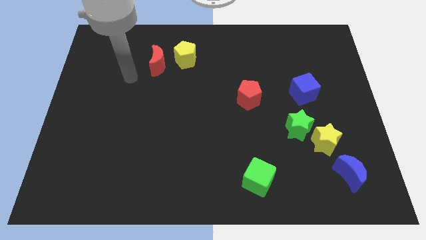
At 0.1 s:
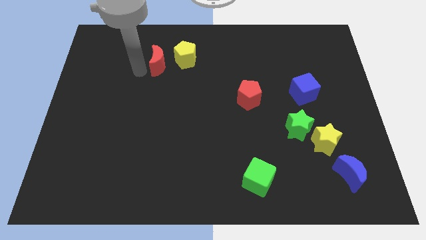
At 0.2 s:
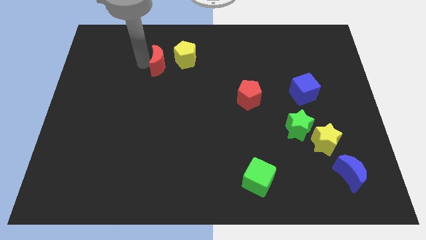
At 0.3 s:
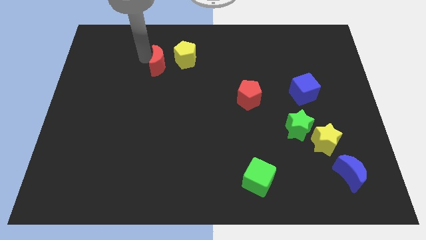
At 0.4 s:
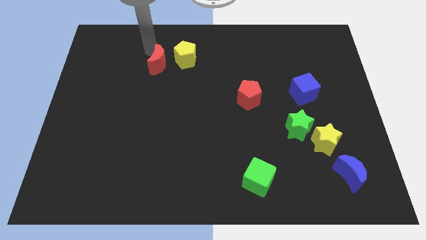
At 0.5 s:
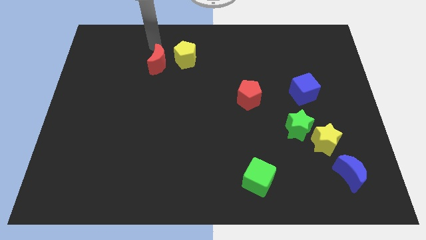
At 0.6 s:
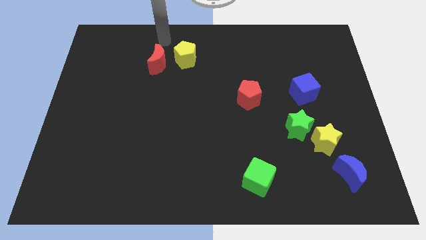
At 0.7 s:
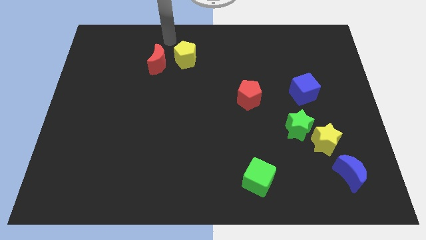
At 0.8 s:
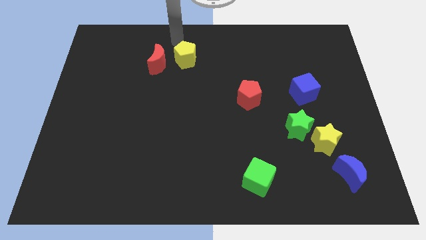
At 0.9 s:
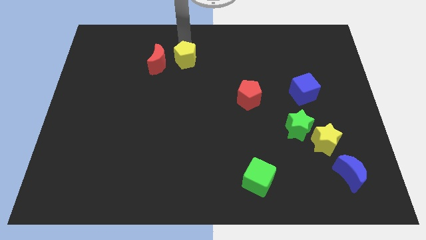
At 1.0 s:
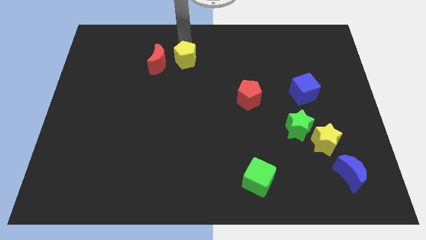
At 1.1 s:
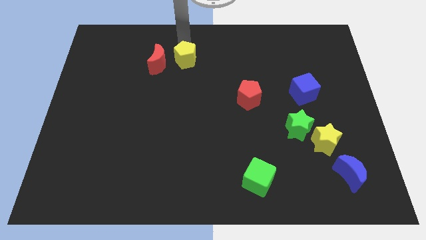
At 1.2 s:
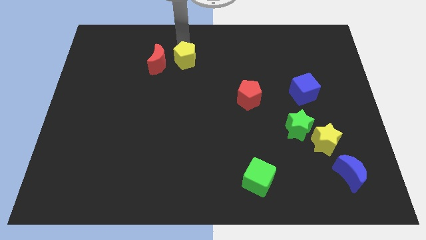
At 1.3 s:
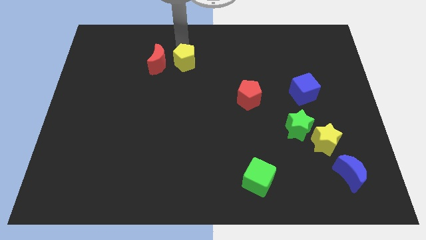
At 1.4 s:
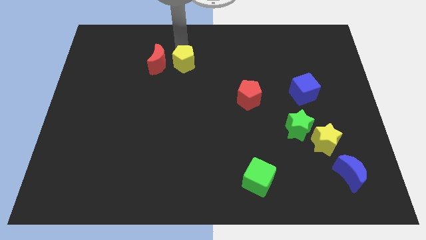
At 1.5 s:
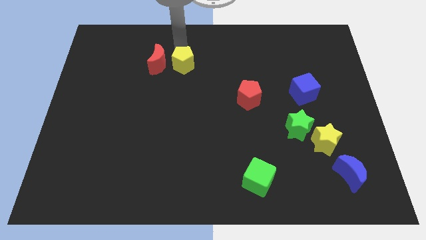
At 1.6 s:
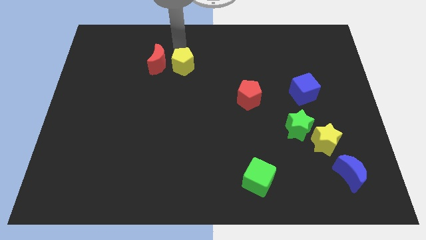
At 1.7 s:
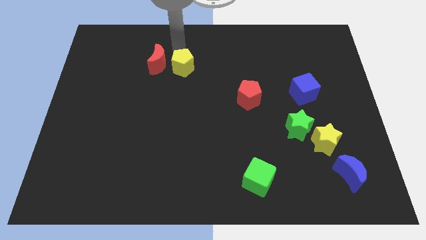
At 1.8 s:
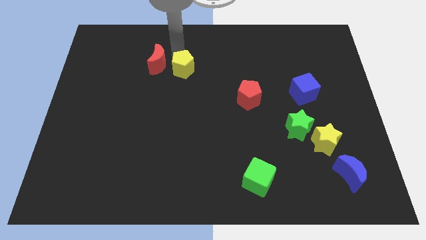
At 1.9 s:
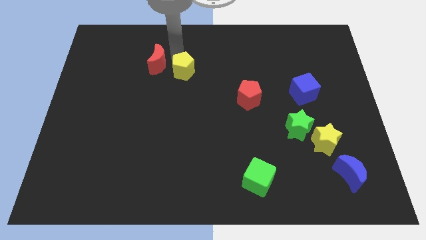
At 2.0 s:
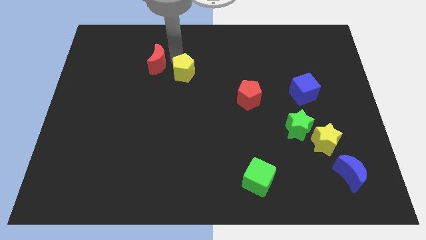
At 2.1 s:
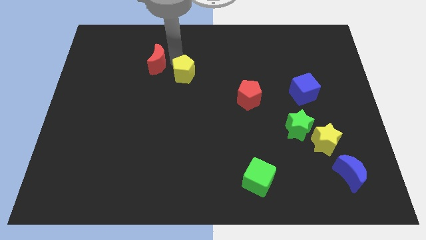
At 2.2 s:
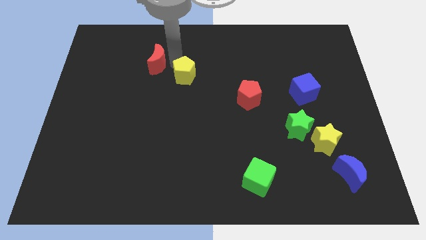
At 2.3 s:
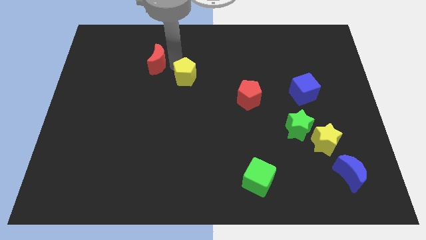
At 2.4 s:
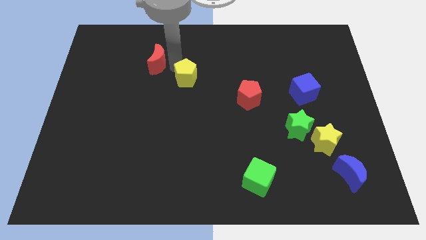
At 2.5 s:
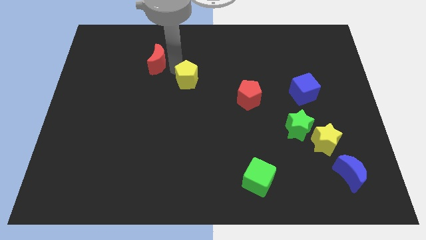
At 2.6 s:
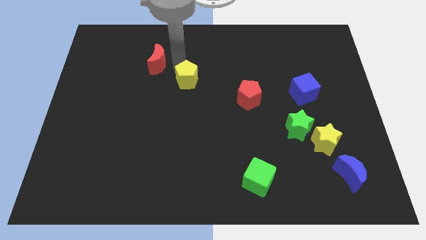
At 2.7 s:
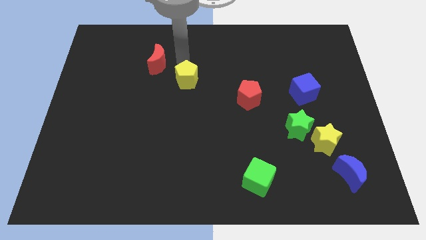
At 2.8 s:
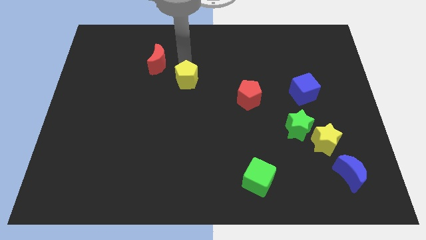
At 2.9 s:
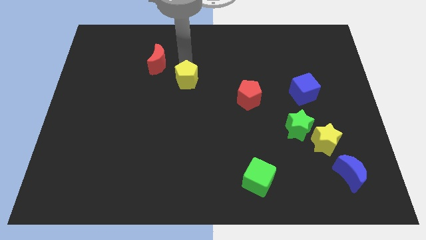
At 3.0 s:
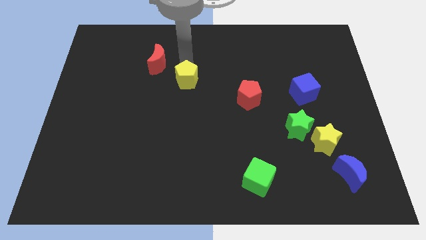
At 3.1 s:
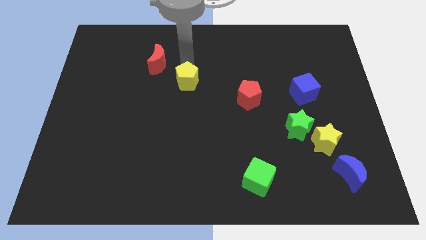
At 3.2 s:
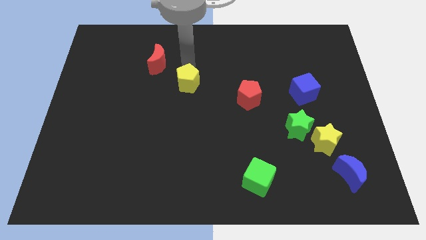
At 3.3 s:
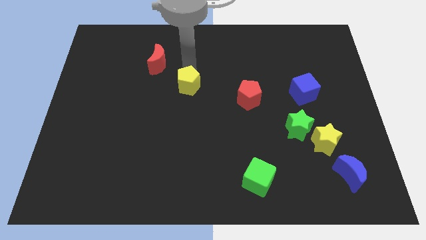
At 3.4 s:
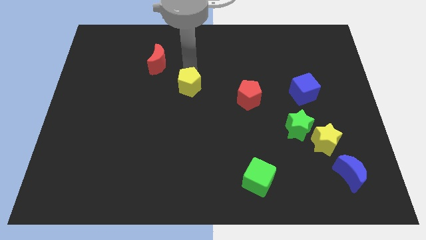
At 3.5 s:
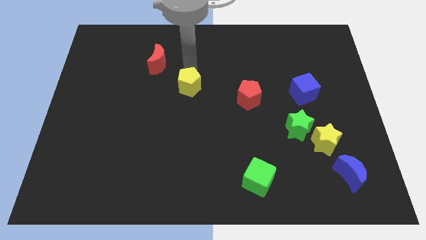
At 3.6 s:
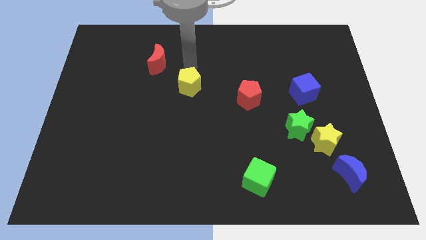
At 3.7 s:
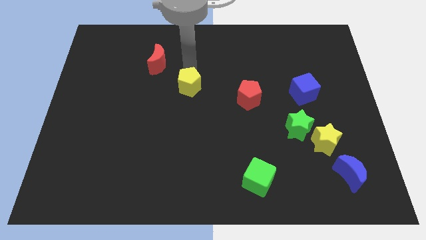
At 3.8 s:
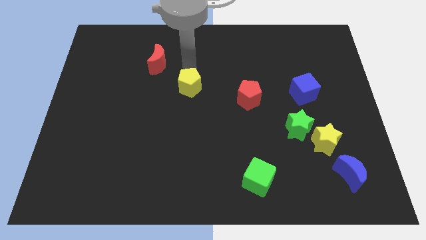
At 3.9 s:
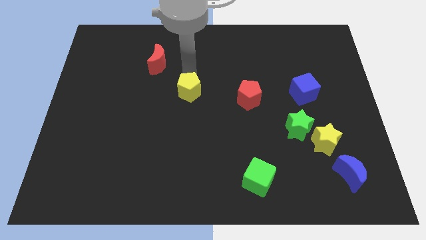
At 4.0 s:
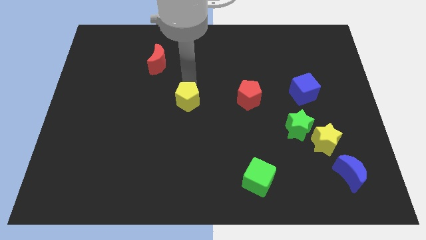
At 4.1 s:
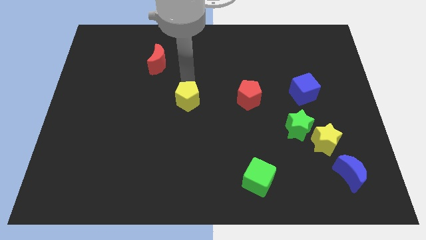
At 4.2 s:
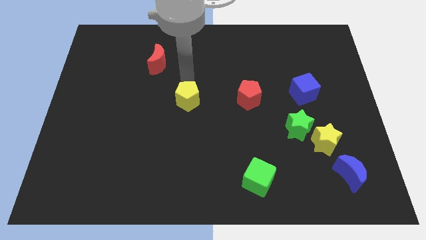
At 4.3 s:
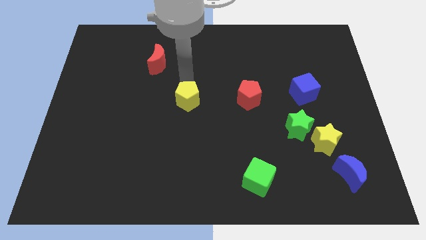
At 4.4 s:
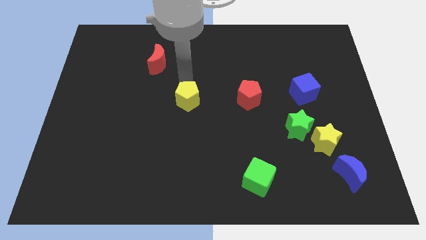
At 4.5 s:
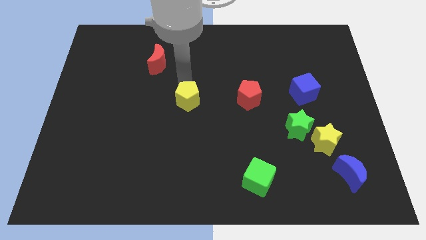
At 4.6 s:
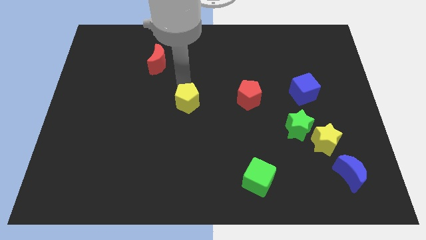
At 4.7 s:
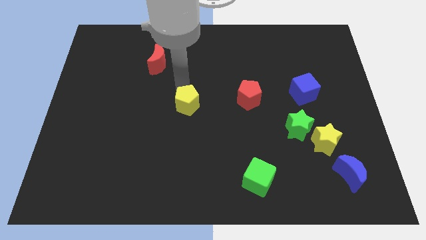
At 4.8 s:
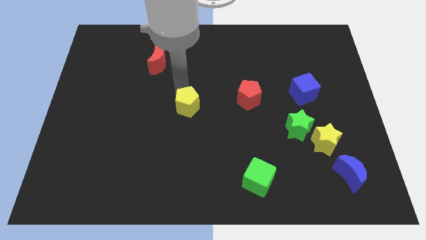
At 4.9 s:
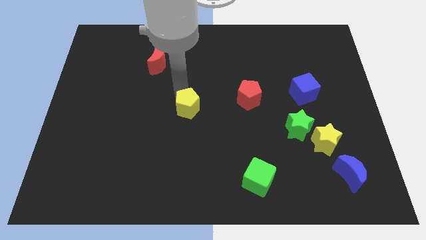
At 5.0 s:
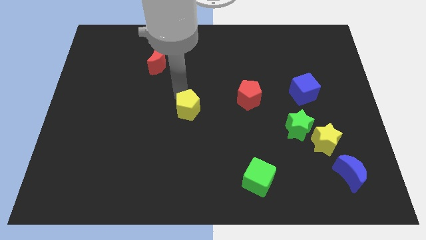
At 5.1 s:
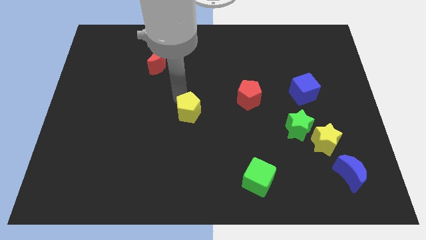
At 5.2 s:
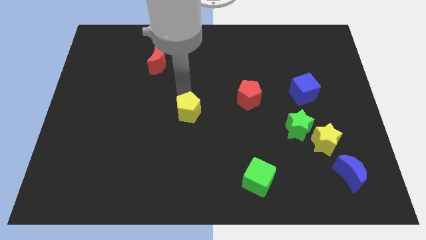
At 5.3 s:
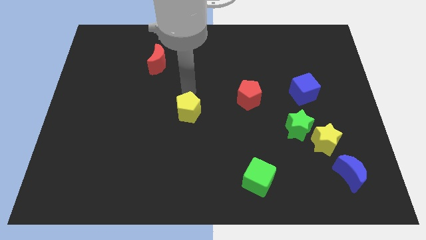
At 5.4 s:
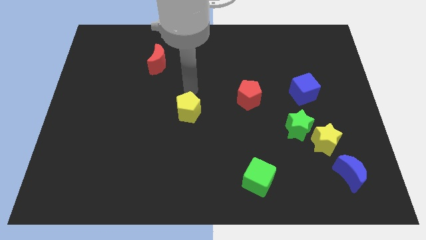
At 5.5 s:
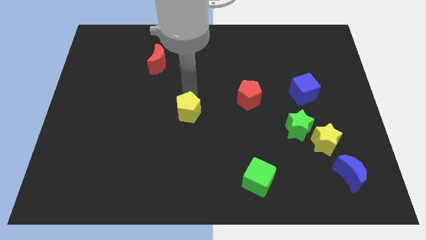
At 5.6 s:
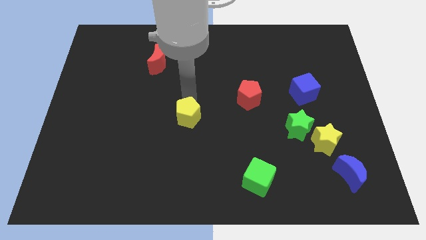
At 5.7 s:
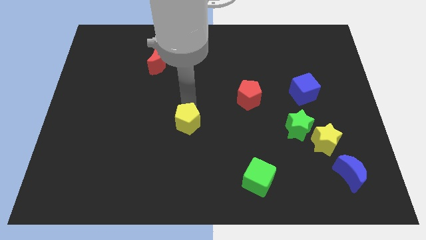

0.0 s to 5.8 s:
push the yellow pentagon down

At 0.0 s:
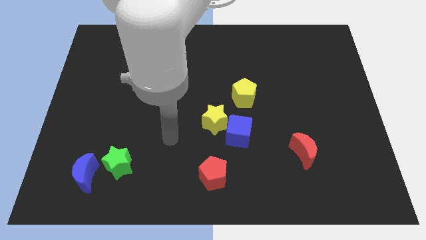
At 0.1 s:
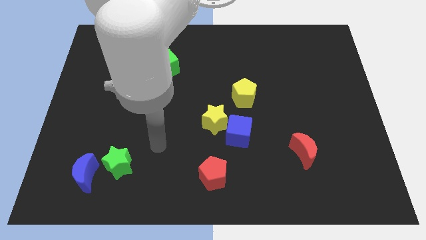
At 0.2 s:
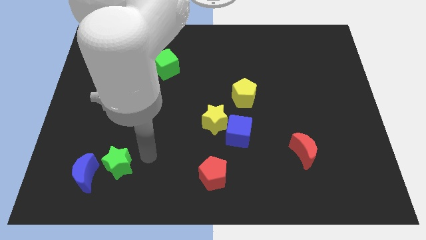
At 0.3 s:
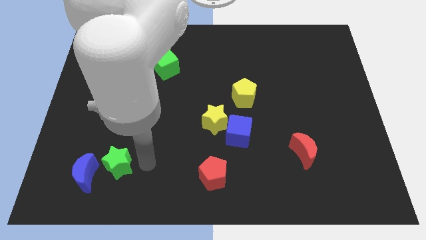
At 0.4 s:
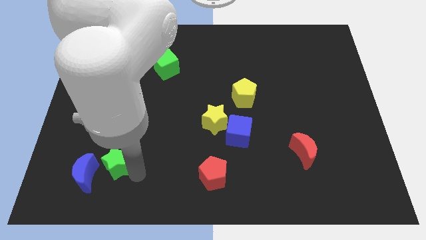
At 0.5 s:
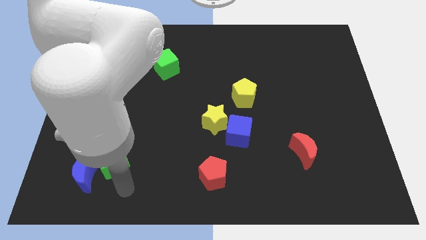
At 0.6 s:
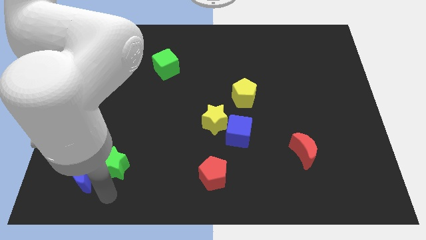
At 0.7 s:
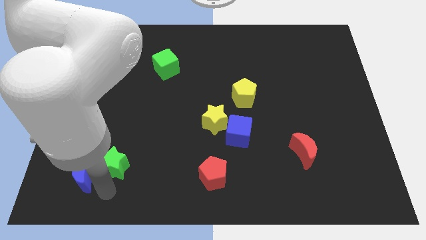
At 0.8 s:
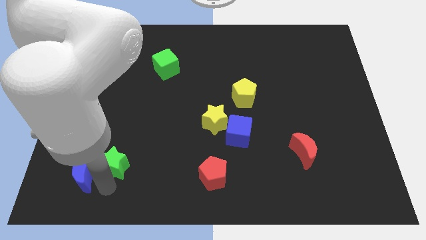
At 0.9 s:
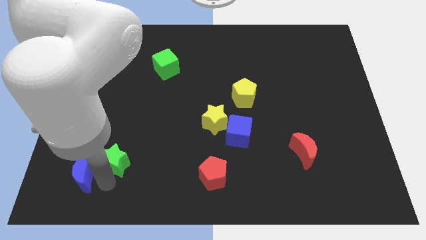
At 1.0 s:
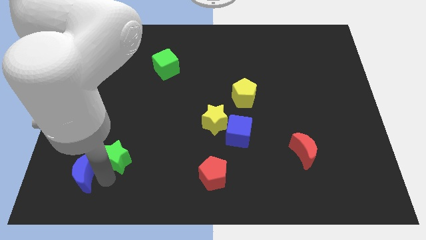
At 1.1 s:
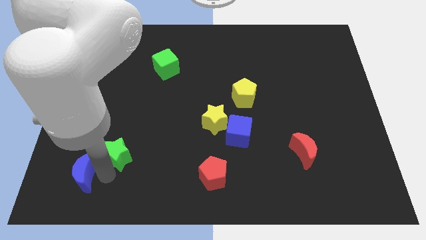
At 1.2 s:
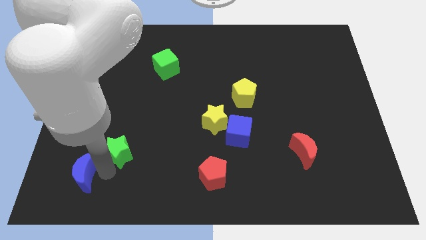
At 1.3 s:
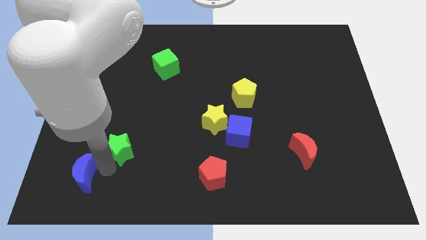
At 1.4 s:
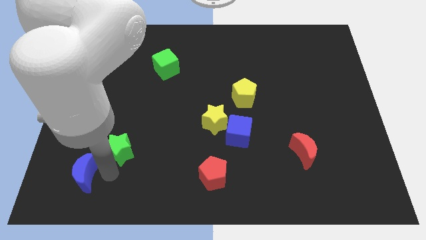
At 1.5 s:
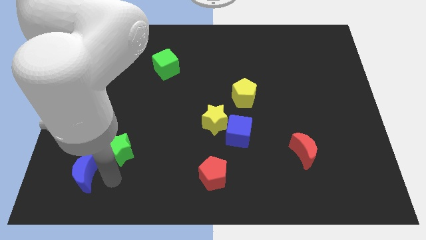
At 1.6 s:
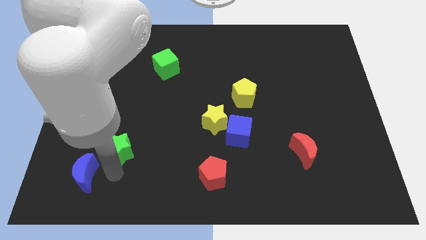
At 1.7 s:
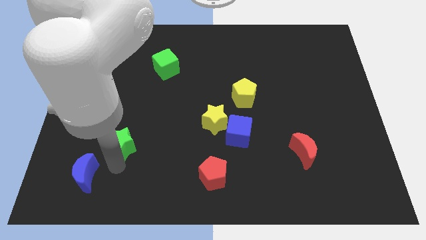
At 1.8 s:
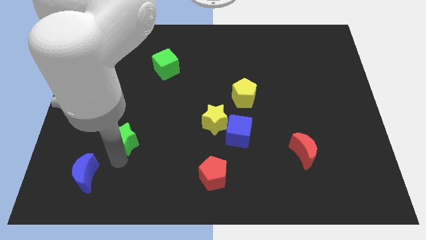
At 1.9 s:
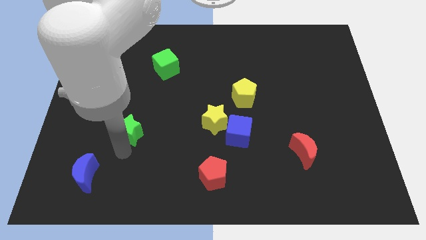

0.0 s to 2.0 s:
move the green star a little bit upwards

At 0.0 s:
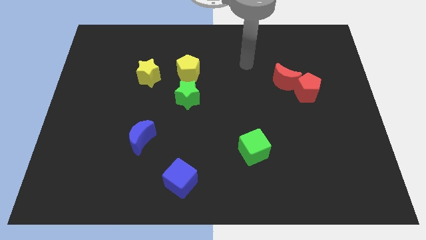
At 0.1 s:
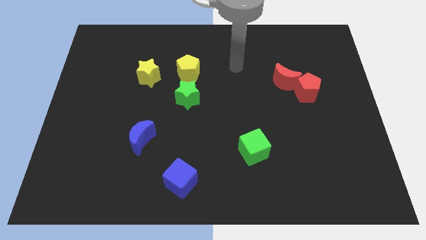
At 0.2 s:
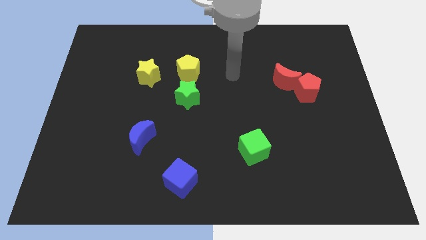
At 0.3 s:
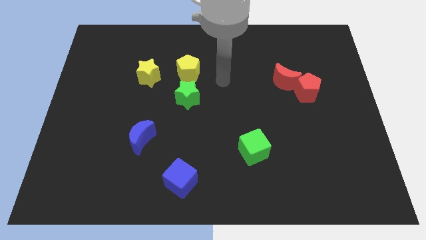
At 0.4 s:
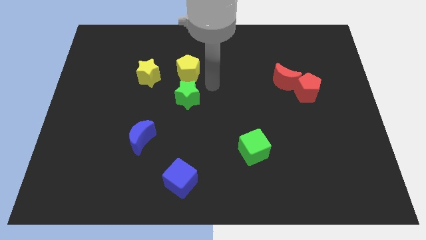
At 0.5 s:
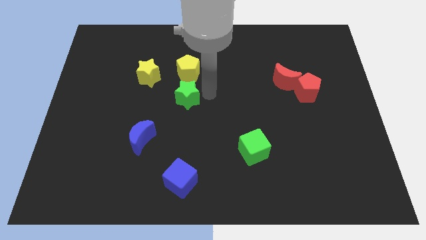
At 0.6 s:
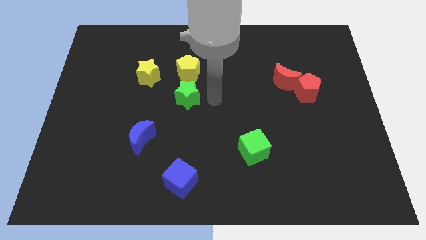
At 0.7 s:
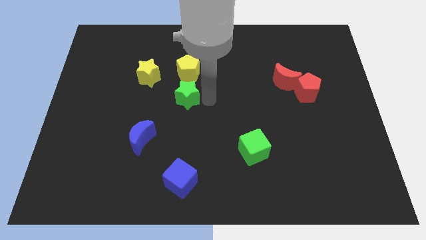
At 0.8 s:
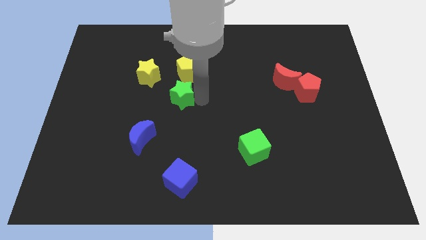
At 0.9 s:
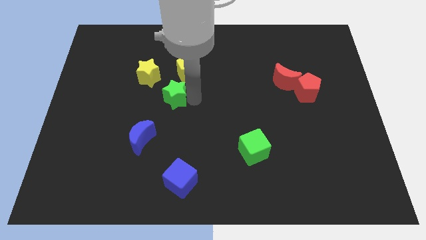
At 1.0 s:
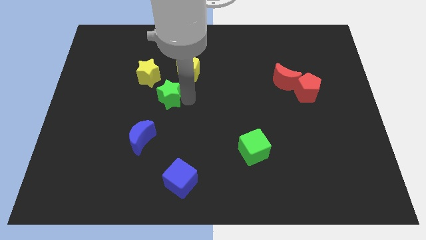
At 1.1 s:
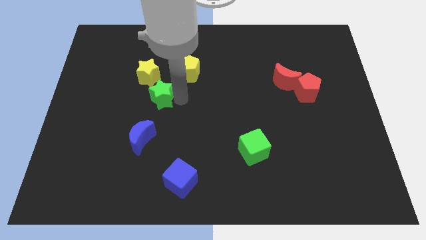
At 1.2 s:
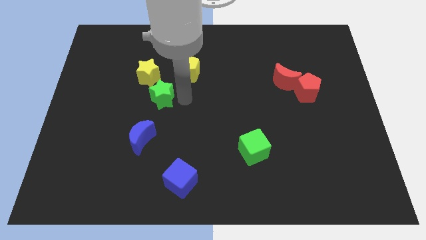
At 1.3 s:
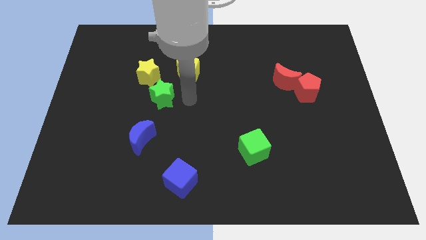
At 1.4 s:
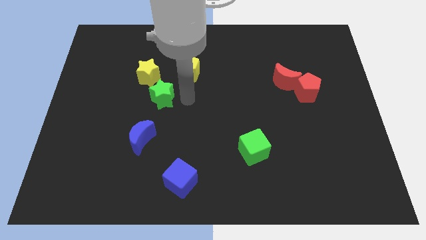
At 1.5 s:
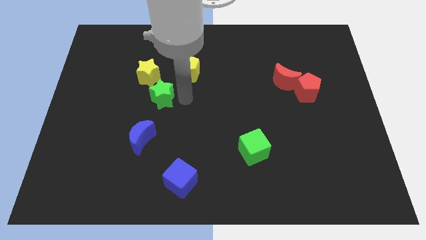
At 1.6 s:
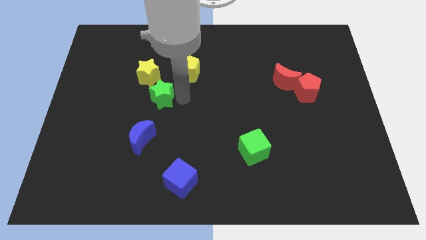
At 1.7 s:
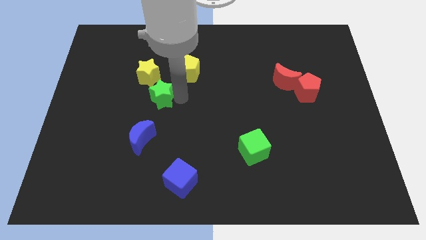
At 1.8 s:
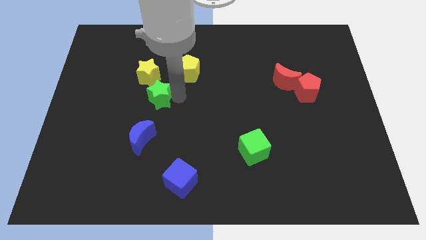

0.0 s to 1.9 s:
slightly slide the green star to the left
